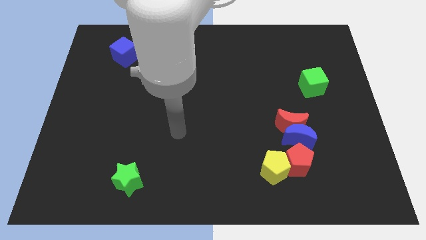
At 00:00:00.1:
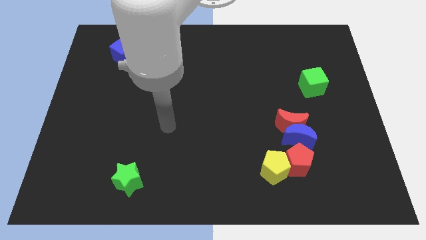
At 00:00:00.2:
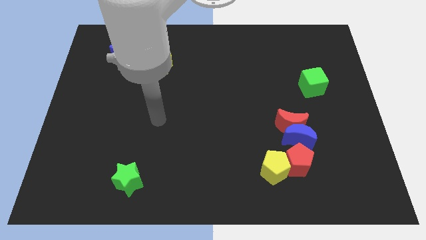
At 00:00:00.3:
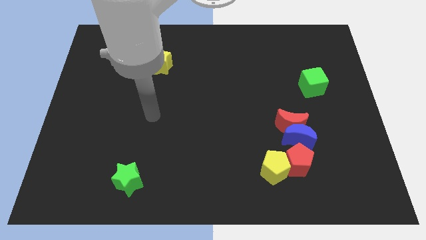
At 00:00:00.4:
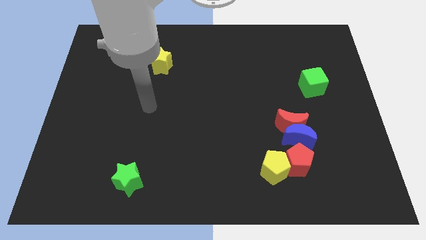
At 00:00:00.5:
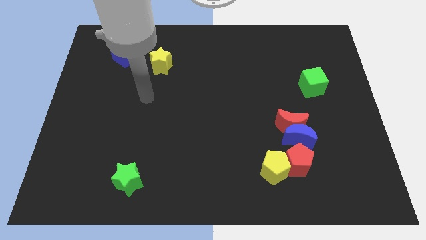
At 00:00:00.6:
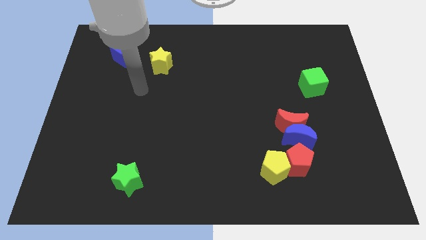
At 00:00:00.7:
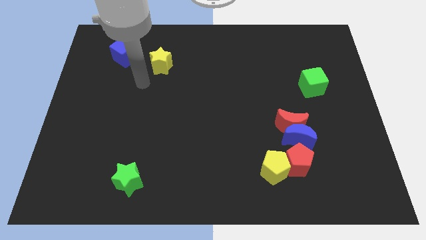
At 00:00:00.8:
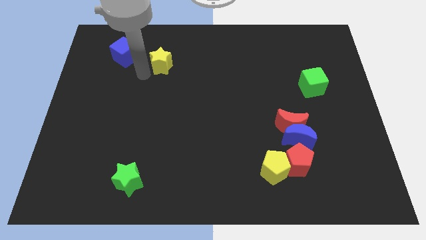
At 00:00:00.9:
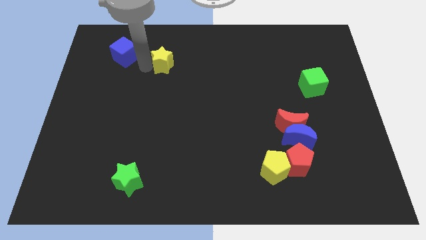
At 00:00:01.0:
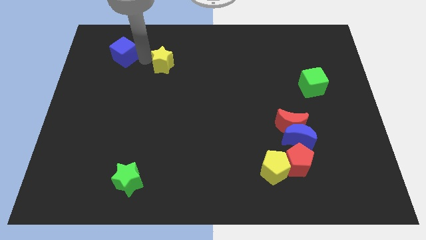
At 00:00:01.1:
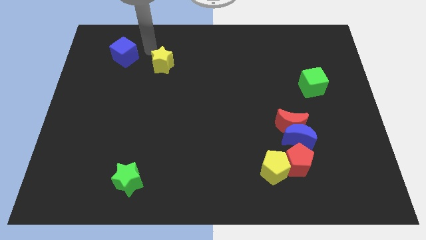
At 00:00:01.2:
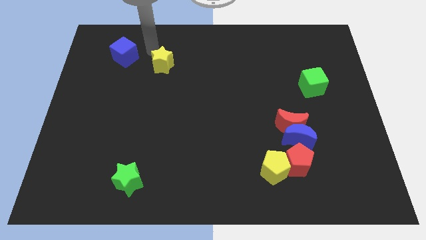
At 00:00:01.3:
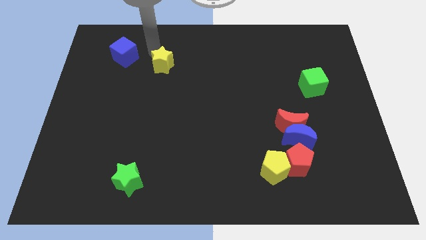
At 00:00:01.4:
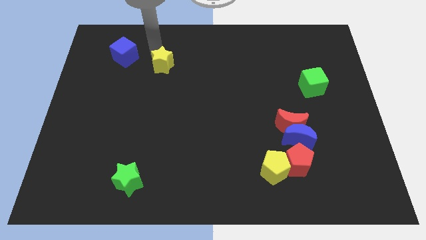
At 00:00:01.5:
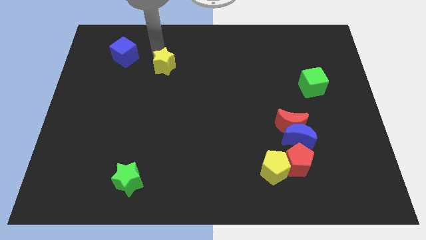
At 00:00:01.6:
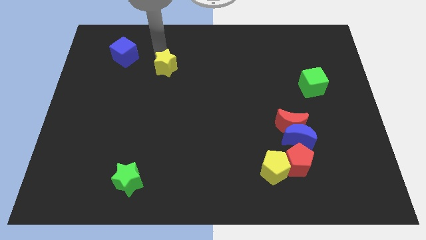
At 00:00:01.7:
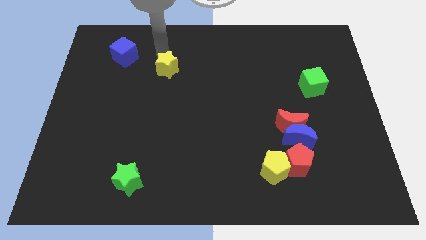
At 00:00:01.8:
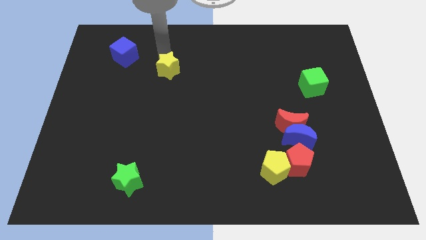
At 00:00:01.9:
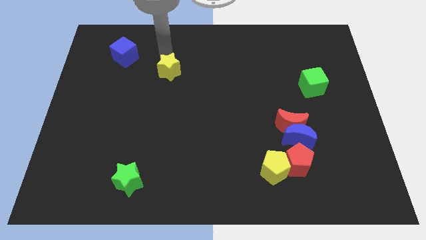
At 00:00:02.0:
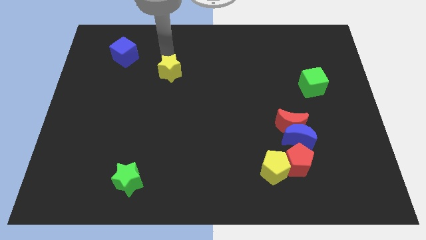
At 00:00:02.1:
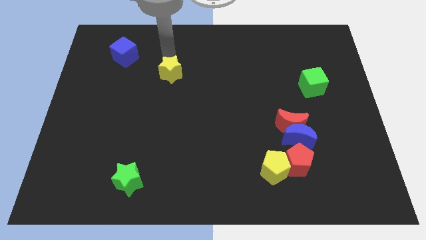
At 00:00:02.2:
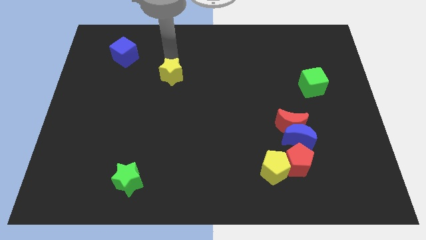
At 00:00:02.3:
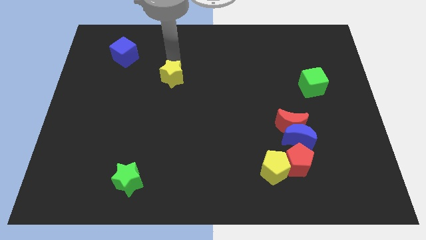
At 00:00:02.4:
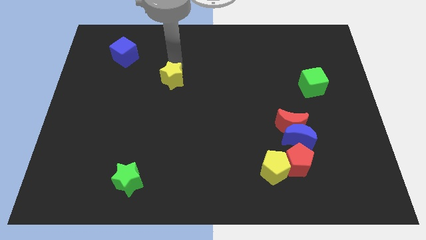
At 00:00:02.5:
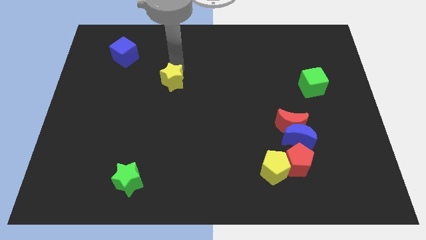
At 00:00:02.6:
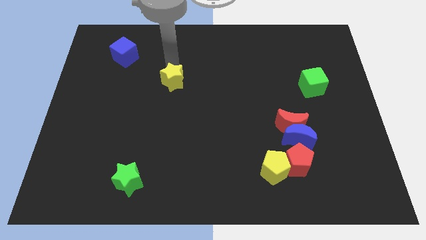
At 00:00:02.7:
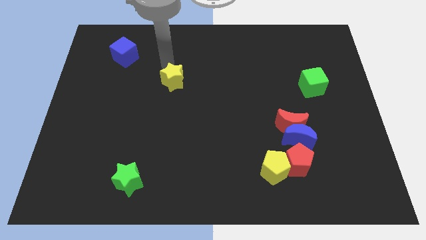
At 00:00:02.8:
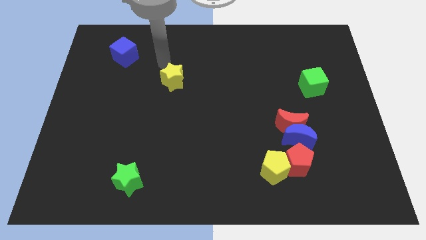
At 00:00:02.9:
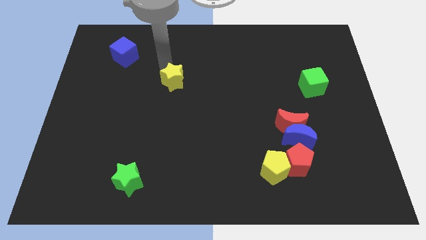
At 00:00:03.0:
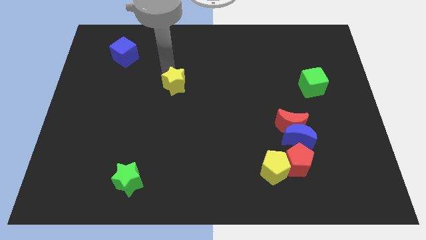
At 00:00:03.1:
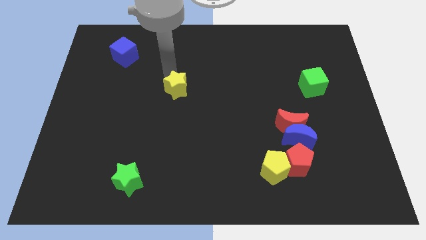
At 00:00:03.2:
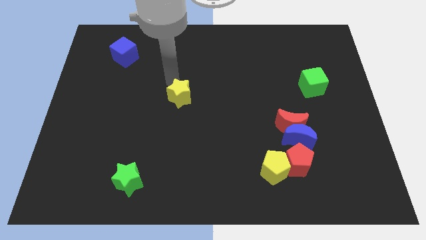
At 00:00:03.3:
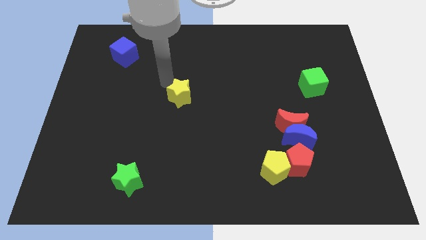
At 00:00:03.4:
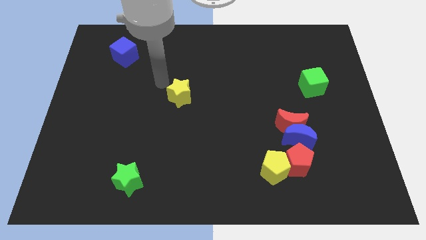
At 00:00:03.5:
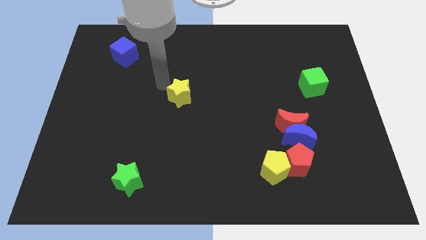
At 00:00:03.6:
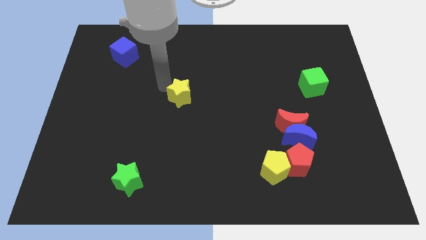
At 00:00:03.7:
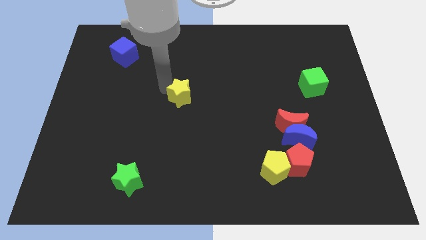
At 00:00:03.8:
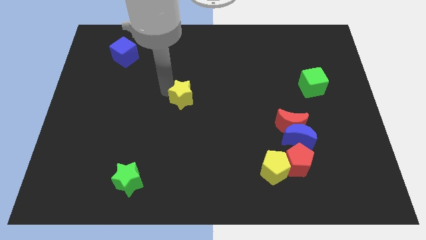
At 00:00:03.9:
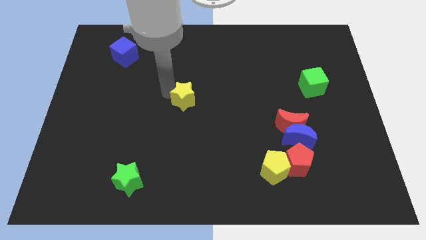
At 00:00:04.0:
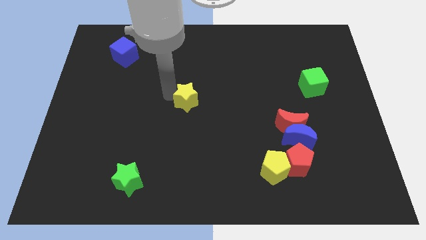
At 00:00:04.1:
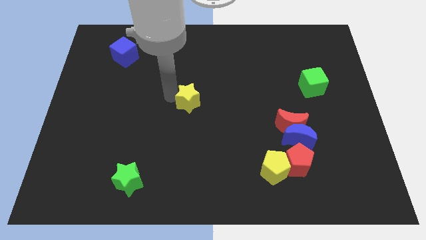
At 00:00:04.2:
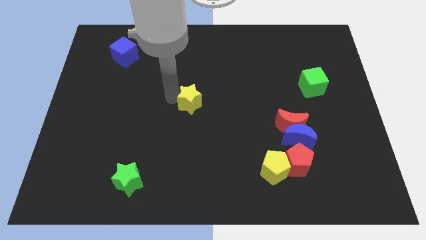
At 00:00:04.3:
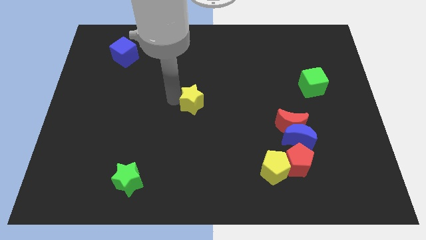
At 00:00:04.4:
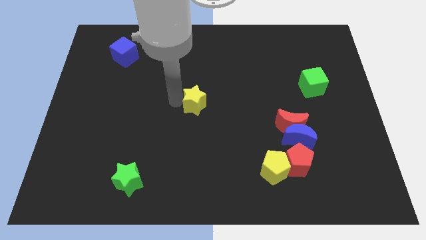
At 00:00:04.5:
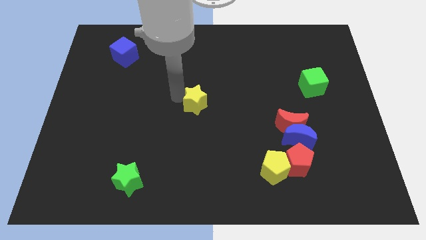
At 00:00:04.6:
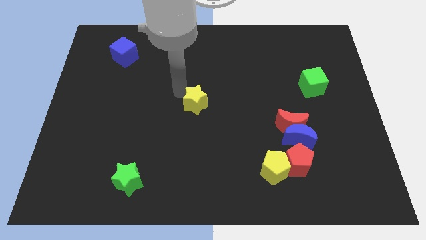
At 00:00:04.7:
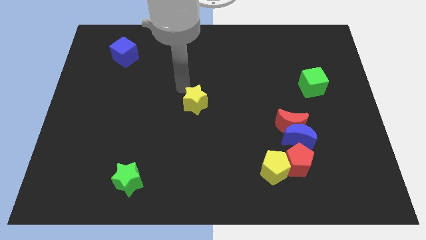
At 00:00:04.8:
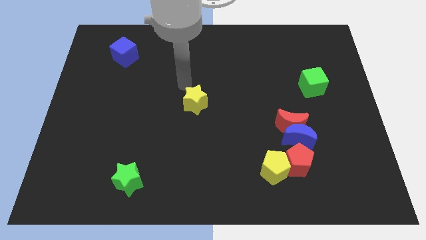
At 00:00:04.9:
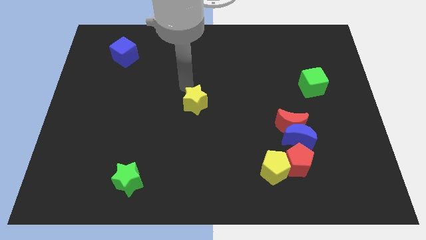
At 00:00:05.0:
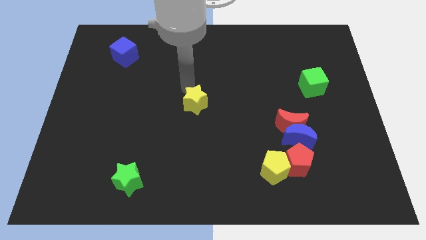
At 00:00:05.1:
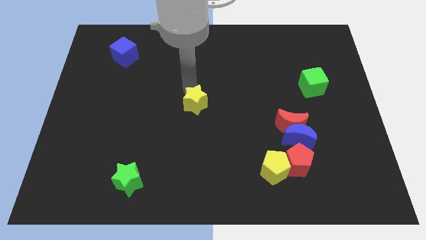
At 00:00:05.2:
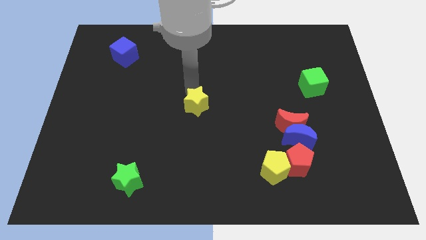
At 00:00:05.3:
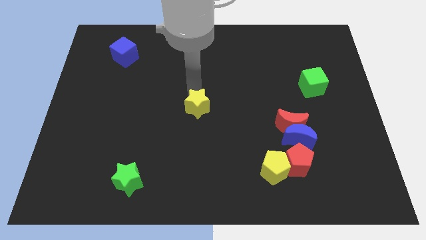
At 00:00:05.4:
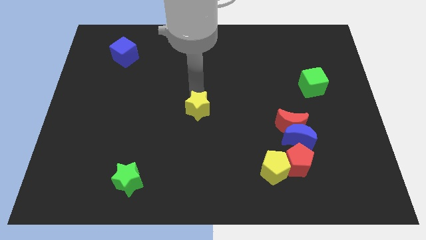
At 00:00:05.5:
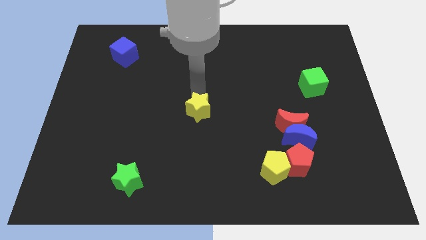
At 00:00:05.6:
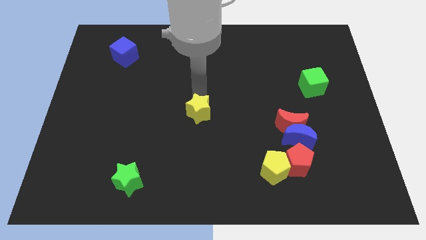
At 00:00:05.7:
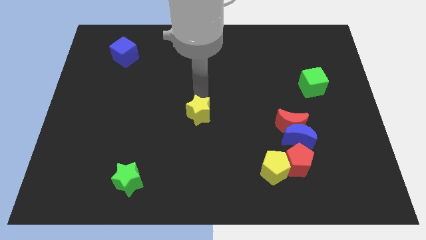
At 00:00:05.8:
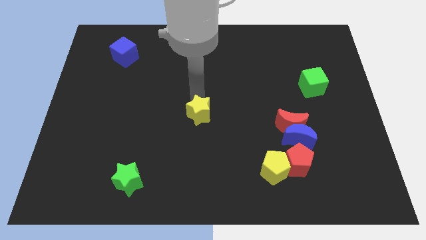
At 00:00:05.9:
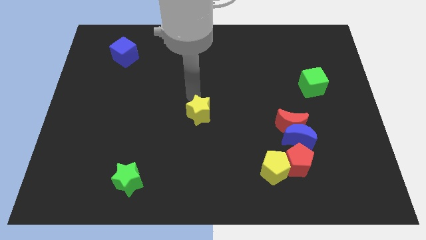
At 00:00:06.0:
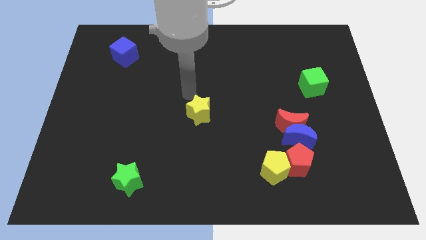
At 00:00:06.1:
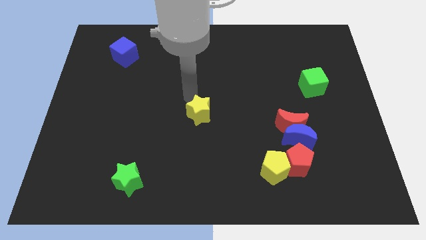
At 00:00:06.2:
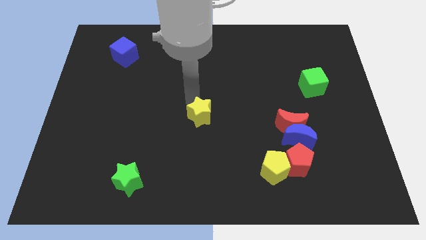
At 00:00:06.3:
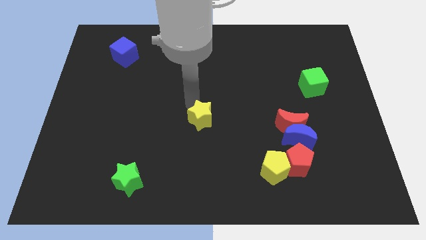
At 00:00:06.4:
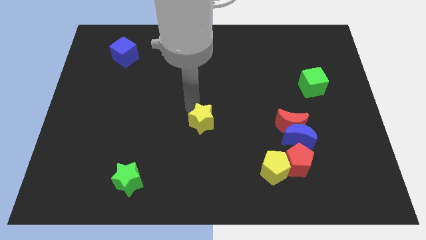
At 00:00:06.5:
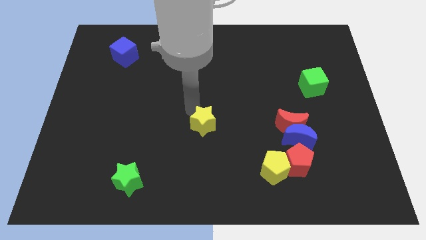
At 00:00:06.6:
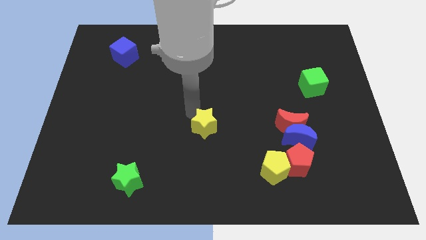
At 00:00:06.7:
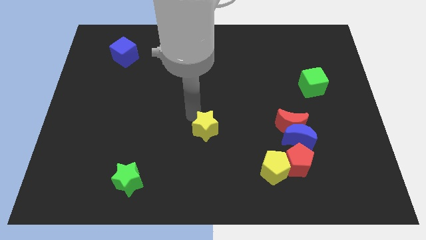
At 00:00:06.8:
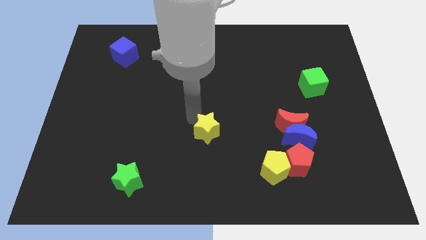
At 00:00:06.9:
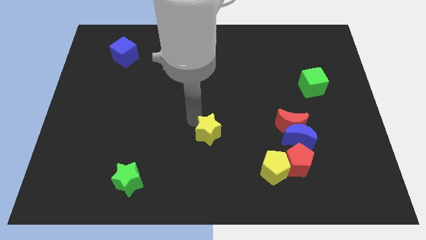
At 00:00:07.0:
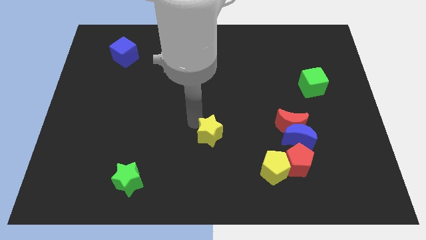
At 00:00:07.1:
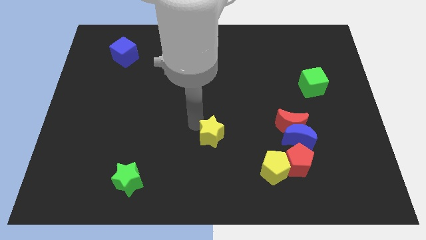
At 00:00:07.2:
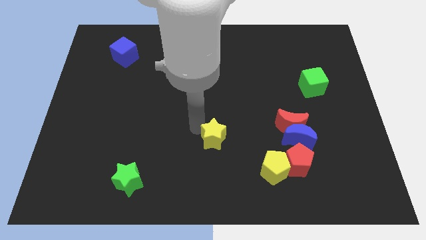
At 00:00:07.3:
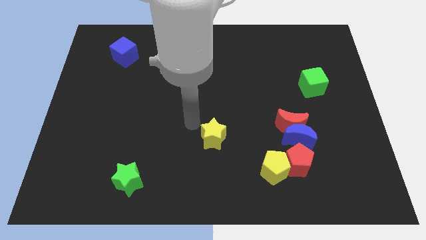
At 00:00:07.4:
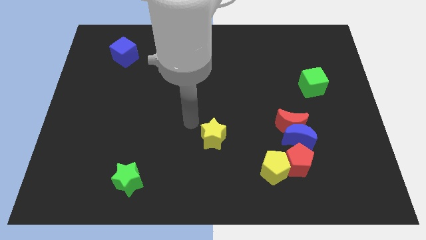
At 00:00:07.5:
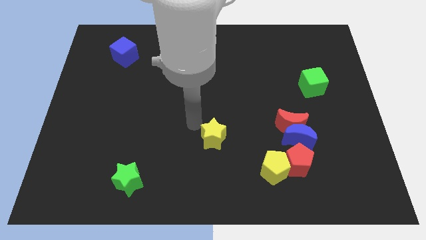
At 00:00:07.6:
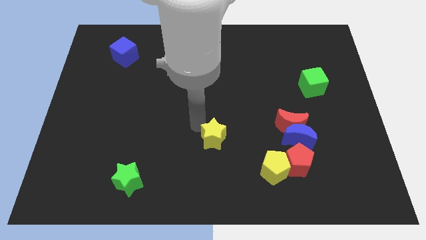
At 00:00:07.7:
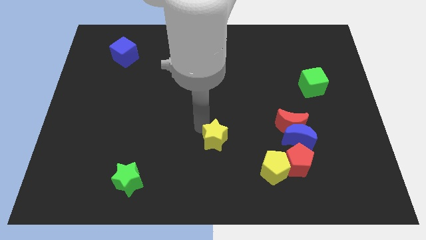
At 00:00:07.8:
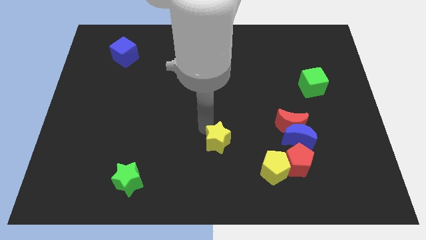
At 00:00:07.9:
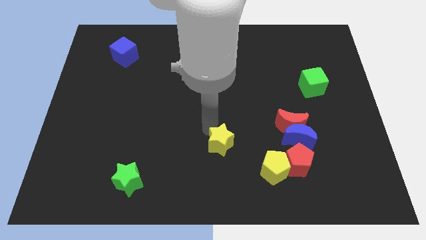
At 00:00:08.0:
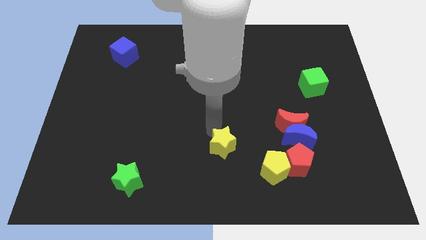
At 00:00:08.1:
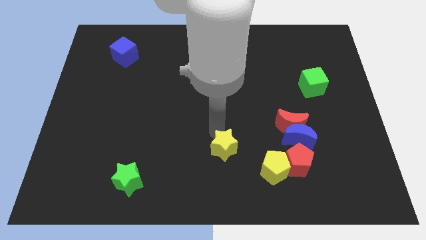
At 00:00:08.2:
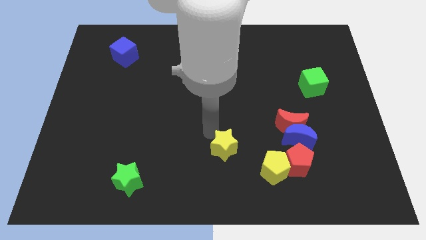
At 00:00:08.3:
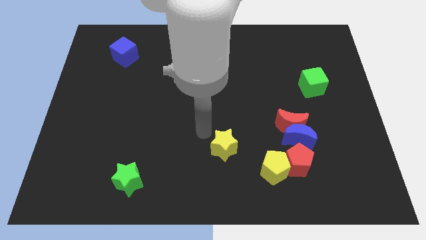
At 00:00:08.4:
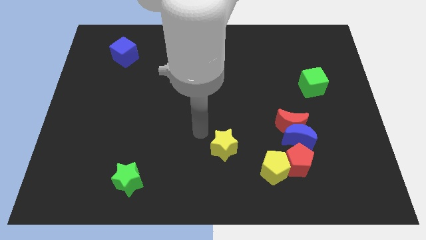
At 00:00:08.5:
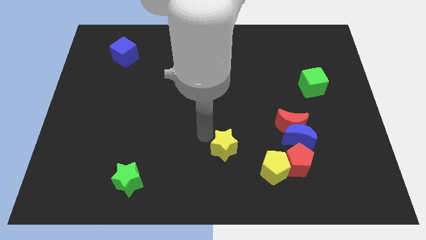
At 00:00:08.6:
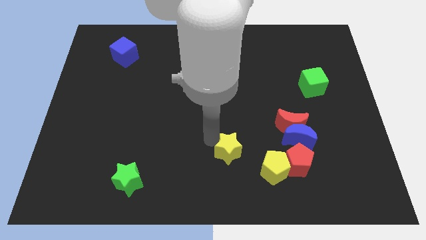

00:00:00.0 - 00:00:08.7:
put the yellow star to the left of the red pentagon
